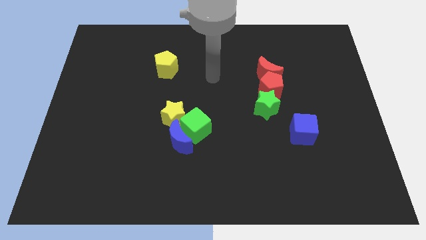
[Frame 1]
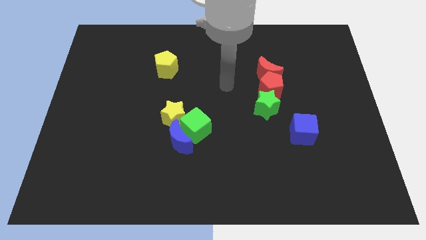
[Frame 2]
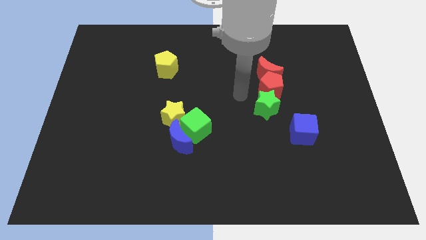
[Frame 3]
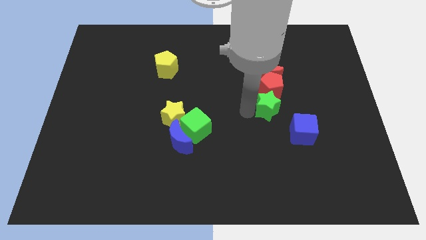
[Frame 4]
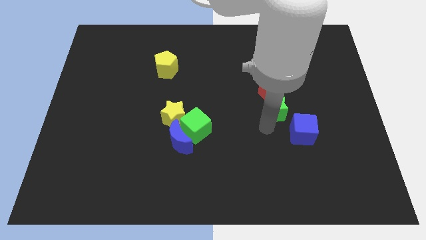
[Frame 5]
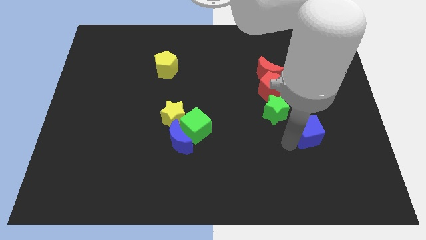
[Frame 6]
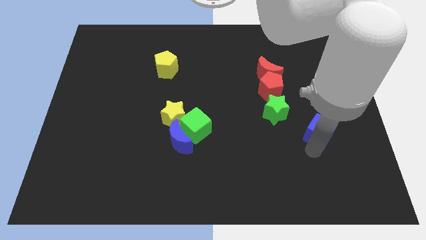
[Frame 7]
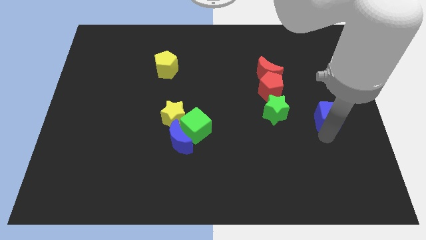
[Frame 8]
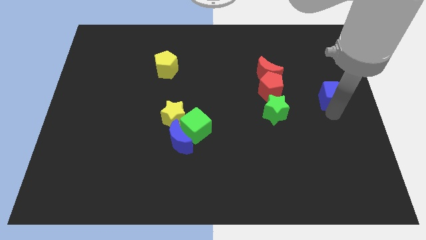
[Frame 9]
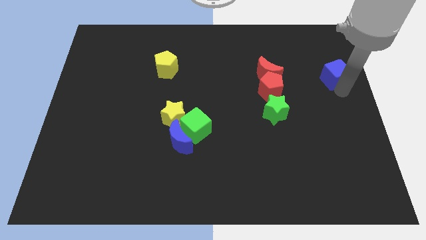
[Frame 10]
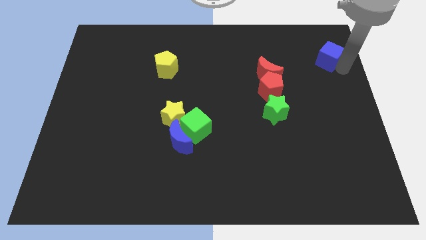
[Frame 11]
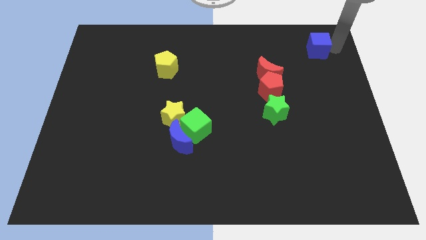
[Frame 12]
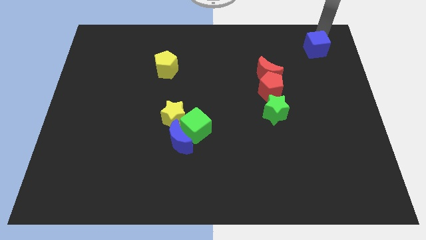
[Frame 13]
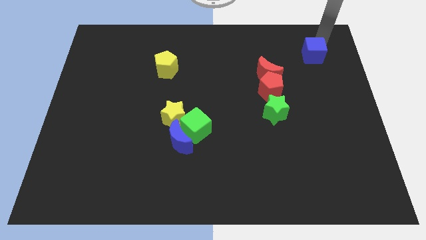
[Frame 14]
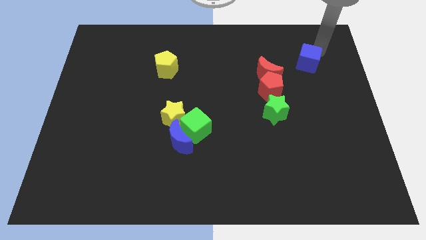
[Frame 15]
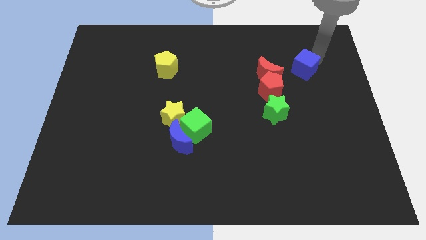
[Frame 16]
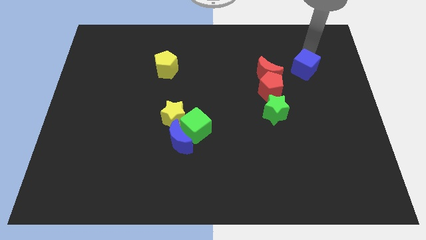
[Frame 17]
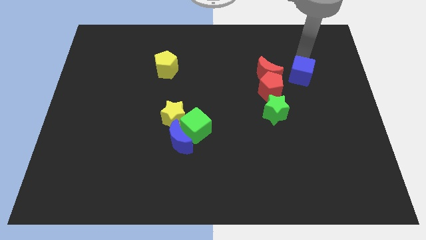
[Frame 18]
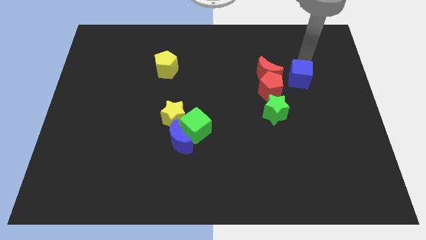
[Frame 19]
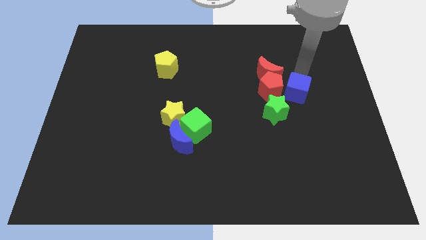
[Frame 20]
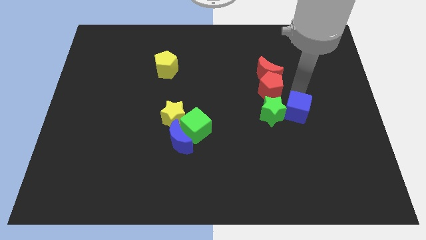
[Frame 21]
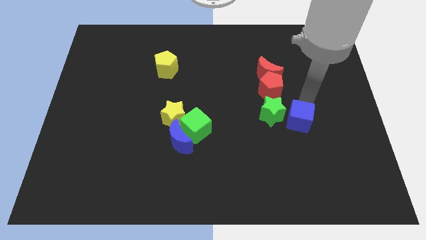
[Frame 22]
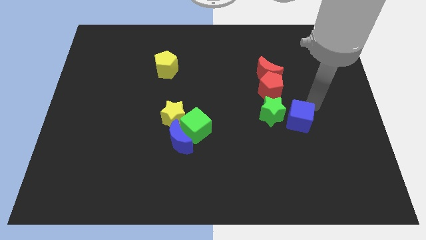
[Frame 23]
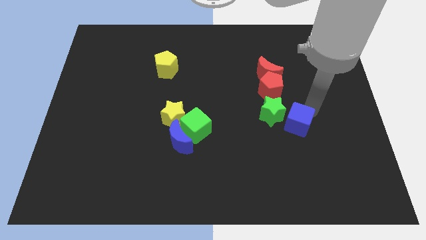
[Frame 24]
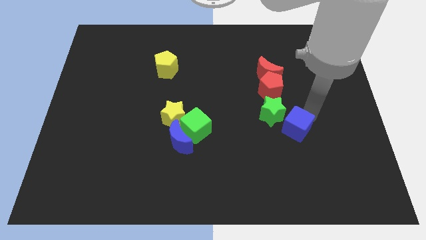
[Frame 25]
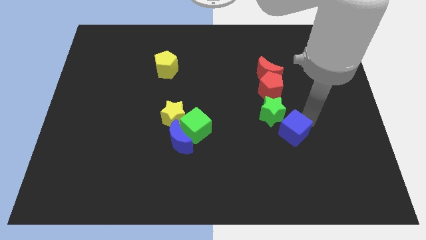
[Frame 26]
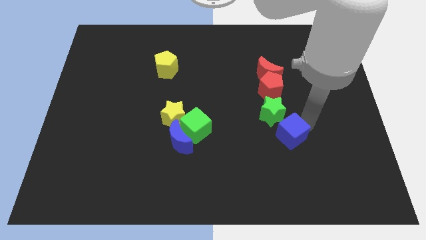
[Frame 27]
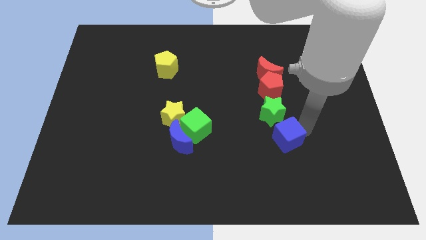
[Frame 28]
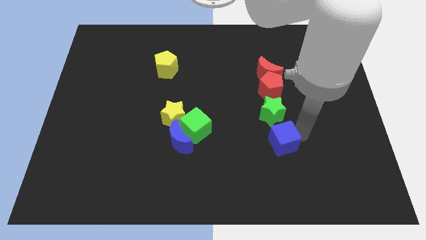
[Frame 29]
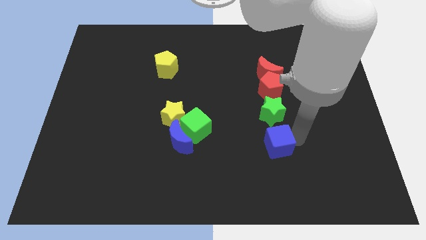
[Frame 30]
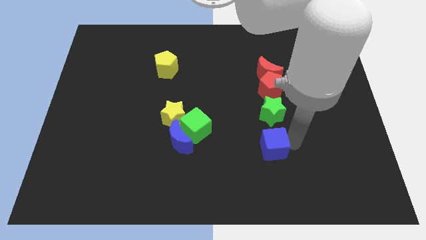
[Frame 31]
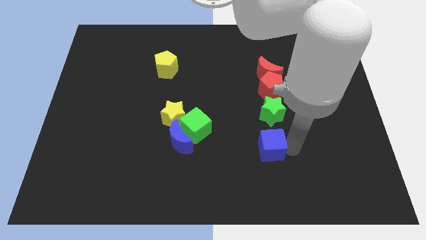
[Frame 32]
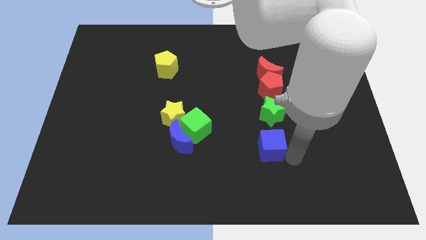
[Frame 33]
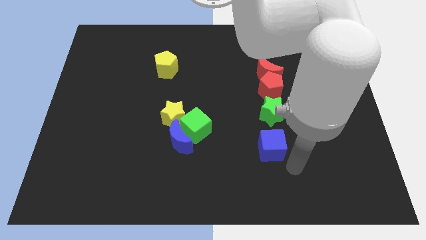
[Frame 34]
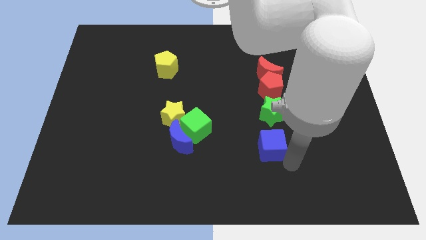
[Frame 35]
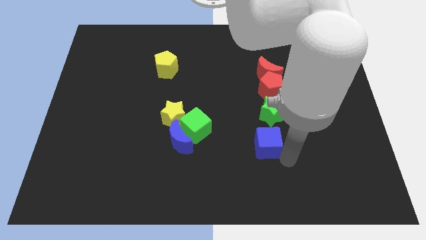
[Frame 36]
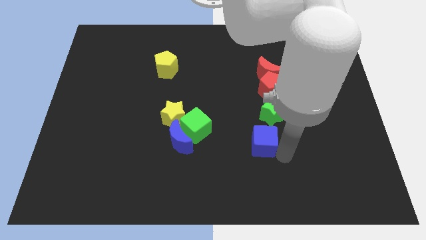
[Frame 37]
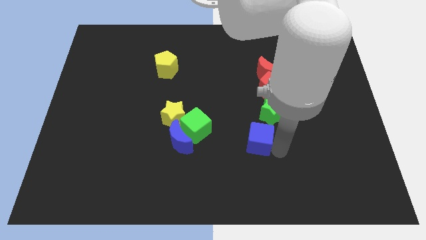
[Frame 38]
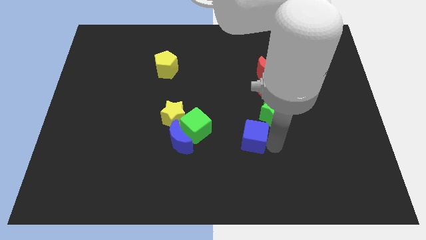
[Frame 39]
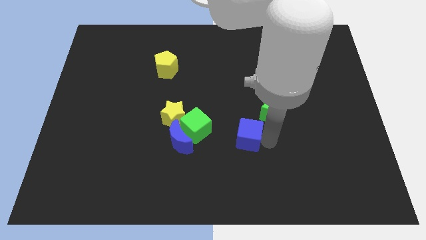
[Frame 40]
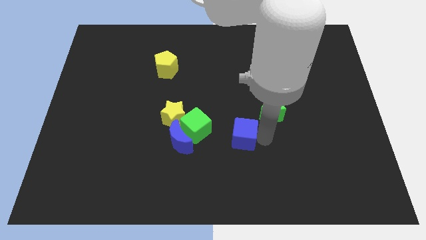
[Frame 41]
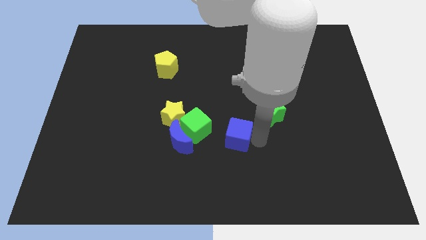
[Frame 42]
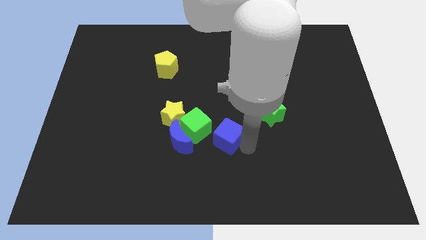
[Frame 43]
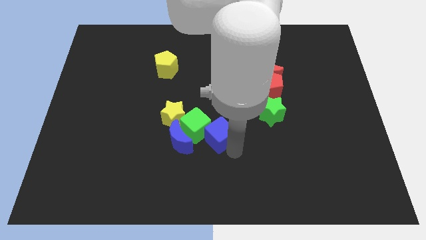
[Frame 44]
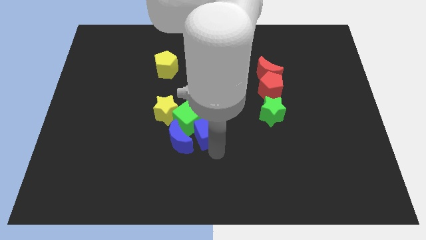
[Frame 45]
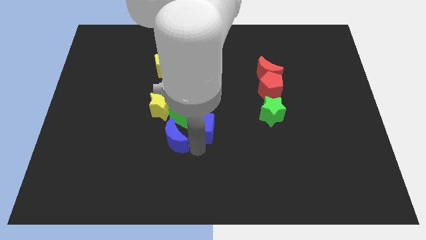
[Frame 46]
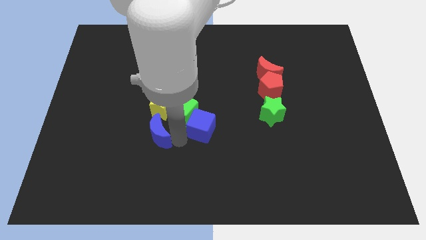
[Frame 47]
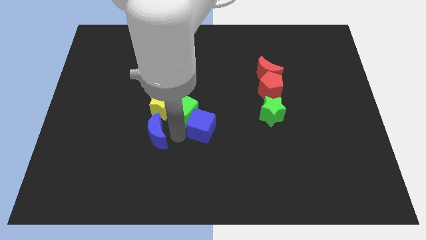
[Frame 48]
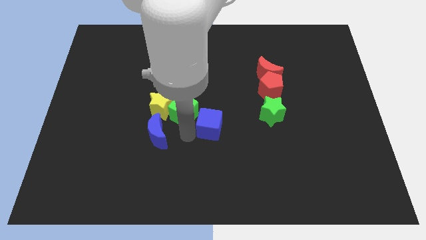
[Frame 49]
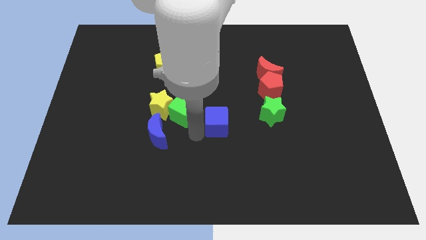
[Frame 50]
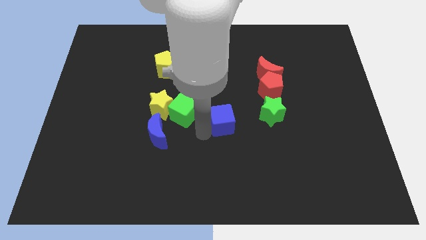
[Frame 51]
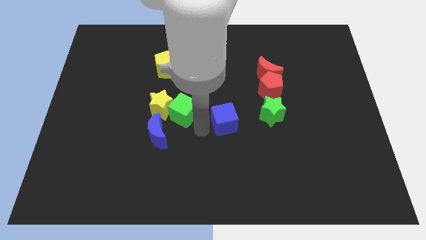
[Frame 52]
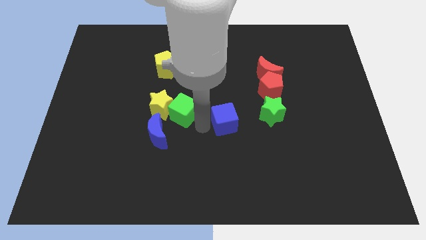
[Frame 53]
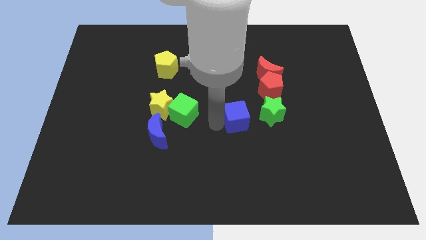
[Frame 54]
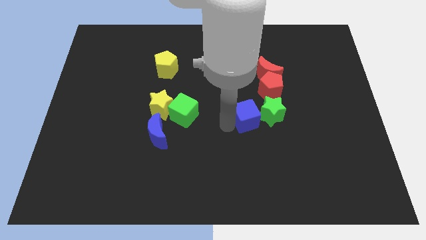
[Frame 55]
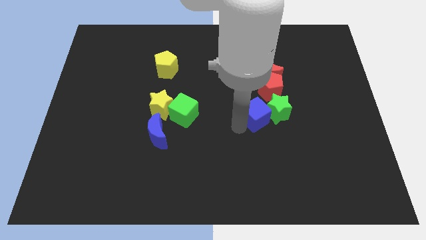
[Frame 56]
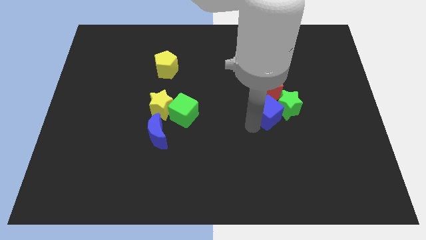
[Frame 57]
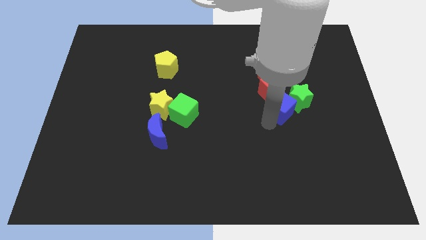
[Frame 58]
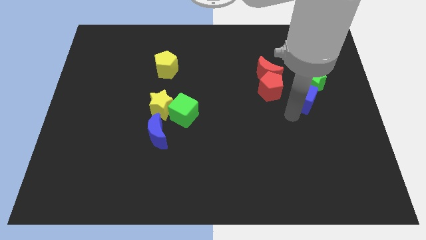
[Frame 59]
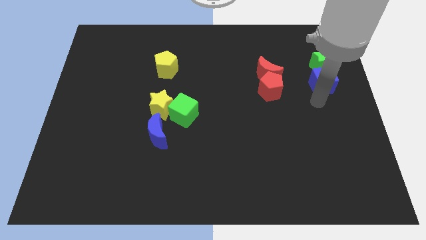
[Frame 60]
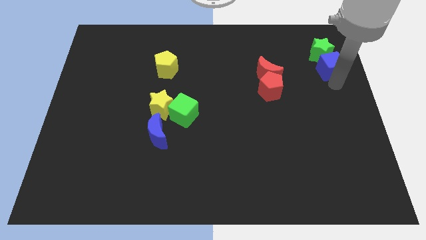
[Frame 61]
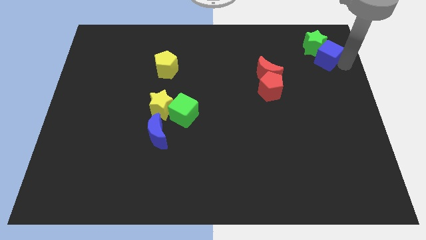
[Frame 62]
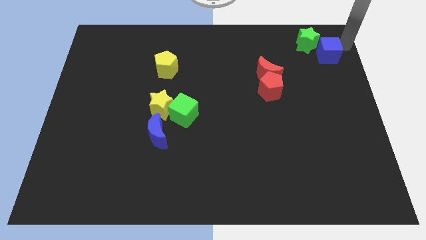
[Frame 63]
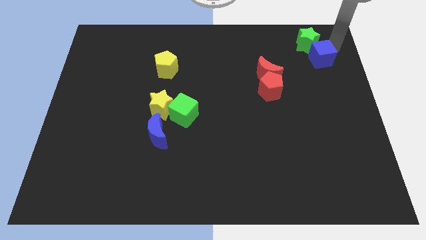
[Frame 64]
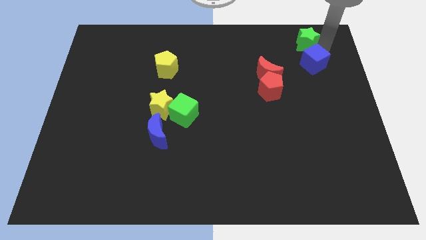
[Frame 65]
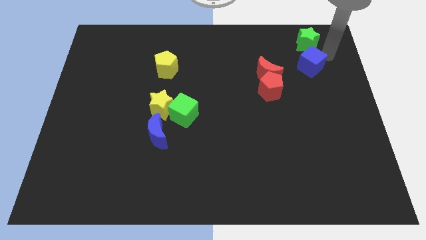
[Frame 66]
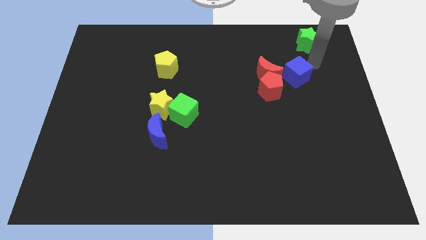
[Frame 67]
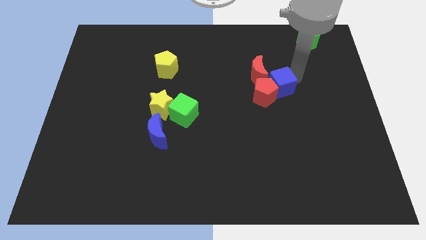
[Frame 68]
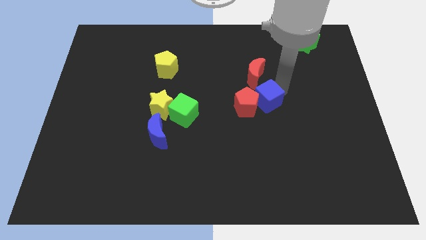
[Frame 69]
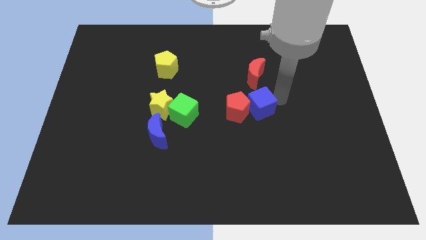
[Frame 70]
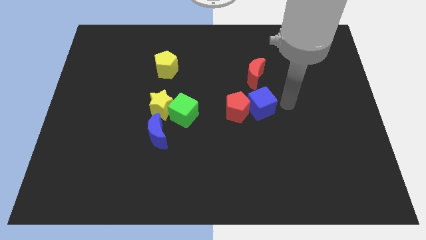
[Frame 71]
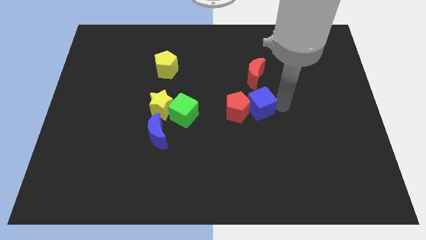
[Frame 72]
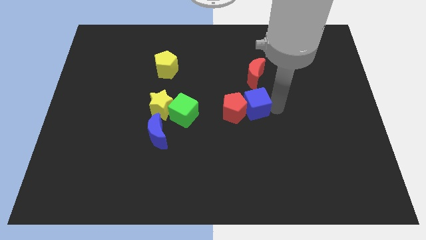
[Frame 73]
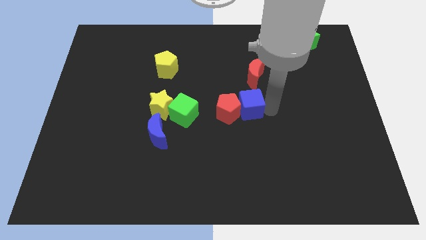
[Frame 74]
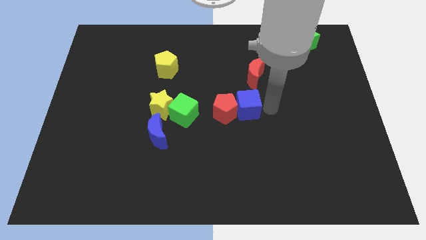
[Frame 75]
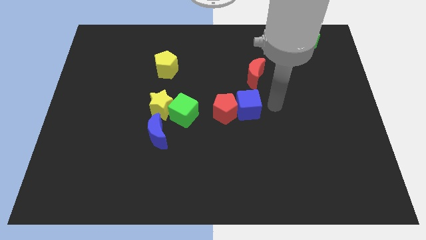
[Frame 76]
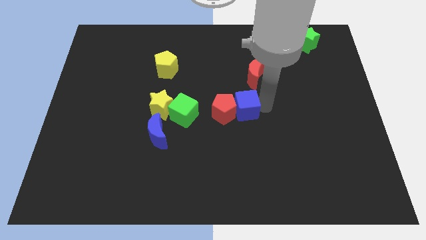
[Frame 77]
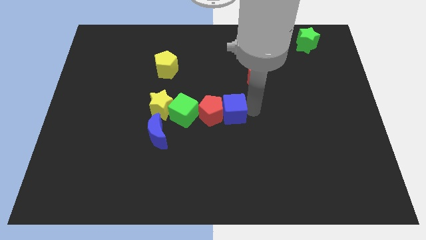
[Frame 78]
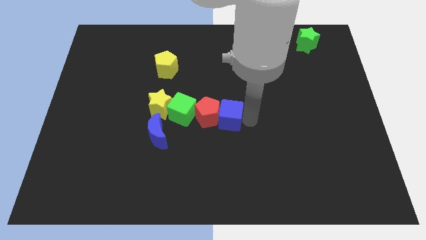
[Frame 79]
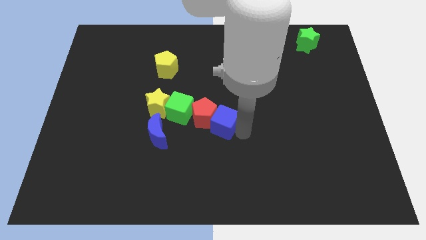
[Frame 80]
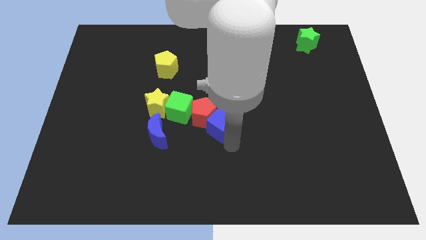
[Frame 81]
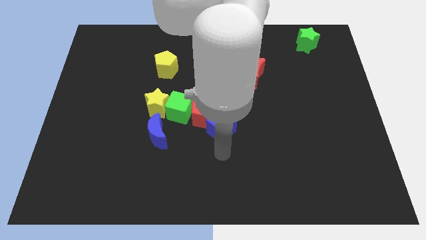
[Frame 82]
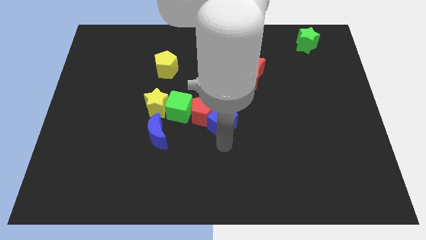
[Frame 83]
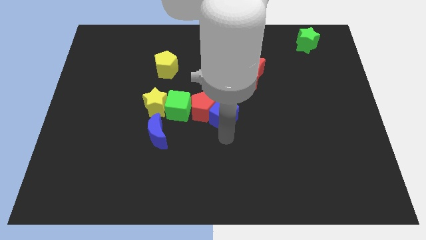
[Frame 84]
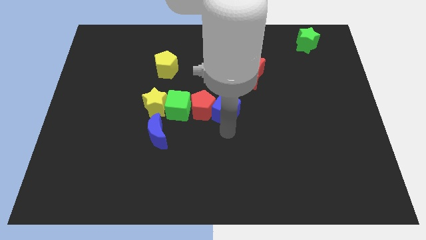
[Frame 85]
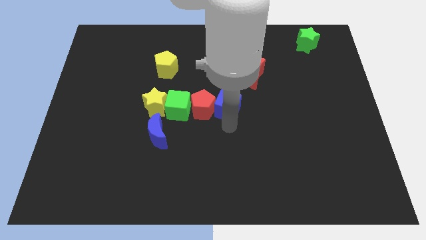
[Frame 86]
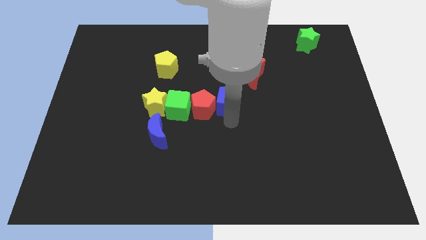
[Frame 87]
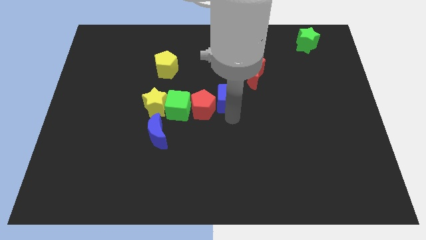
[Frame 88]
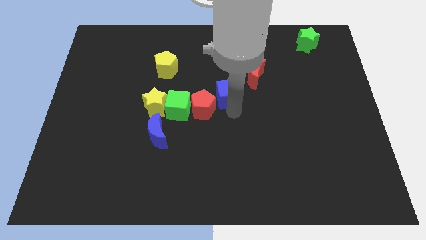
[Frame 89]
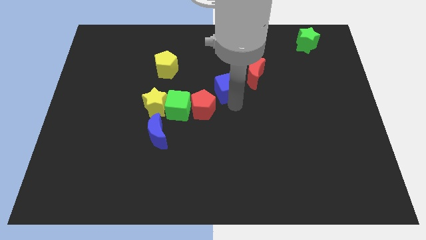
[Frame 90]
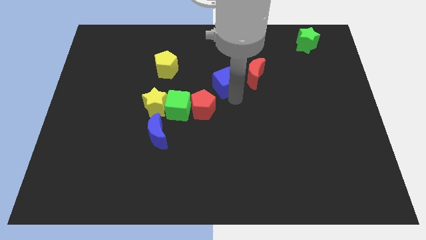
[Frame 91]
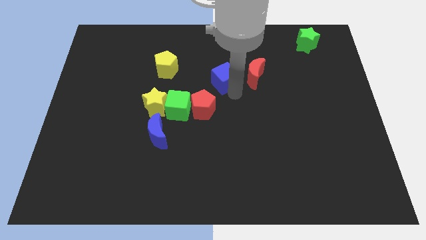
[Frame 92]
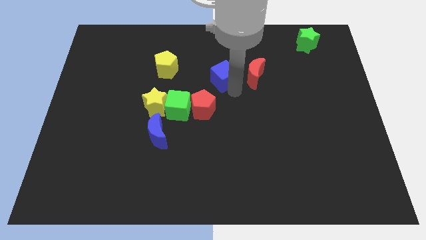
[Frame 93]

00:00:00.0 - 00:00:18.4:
slide the blue cube just right of the yellow pentagon
